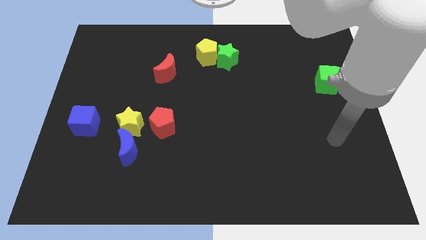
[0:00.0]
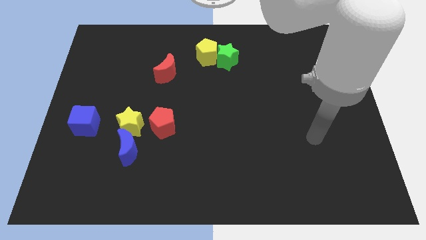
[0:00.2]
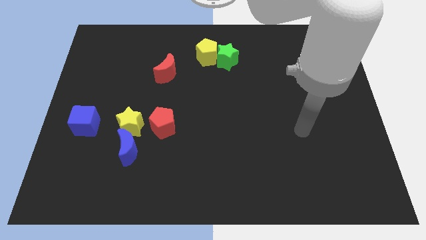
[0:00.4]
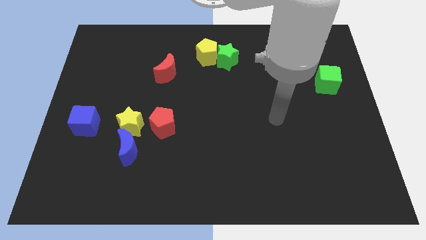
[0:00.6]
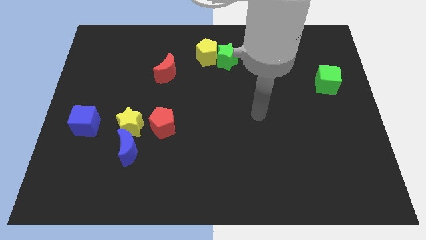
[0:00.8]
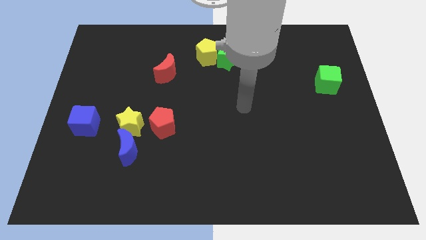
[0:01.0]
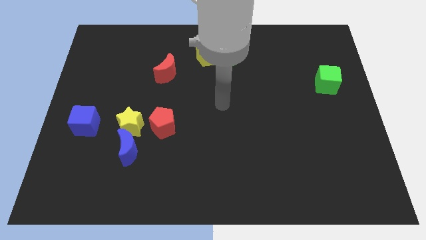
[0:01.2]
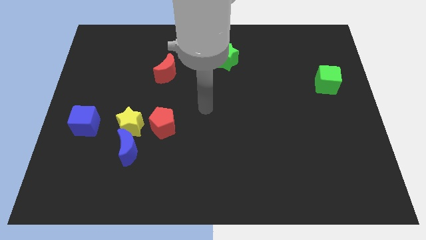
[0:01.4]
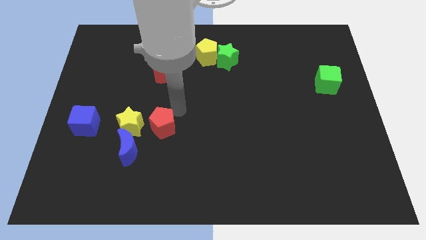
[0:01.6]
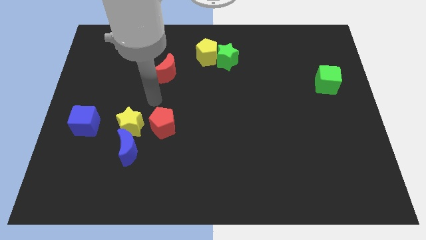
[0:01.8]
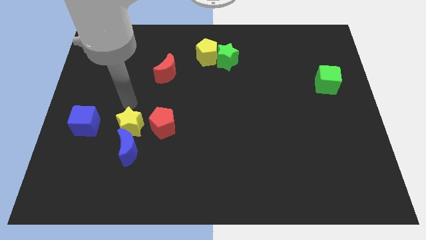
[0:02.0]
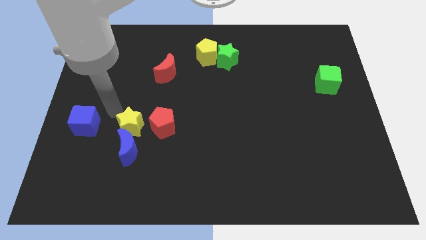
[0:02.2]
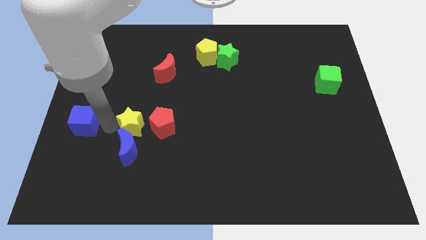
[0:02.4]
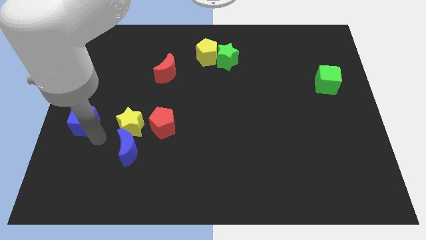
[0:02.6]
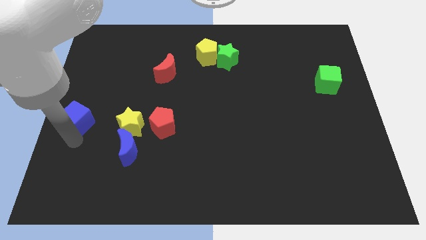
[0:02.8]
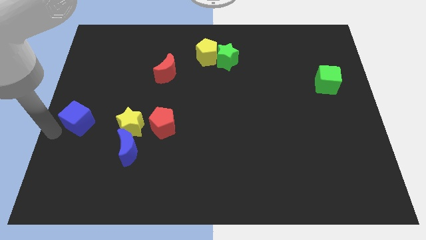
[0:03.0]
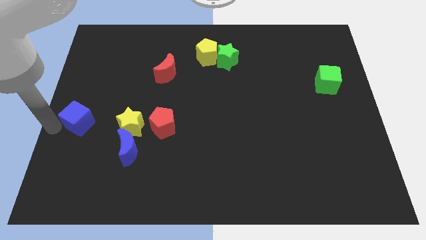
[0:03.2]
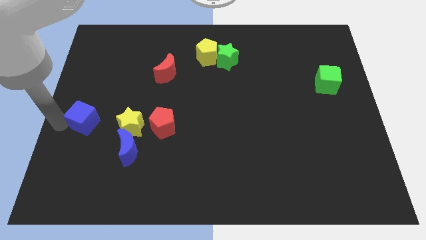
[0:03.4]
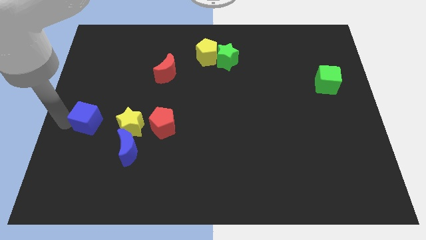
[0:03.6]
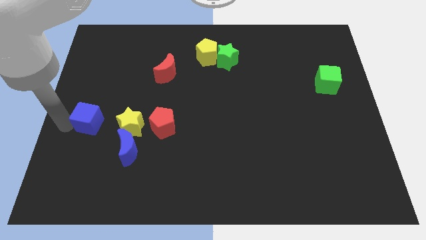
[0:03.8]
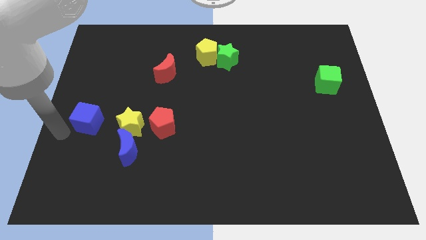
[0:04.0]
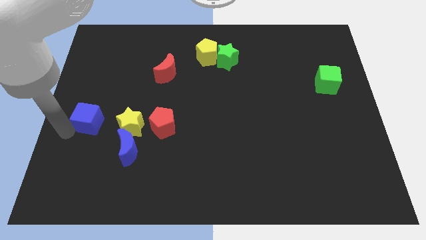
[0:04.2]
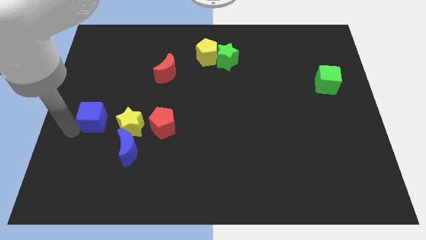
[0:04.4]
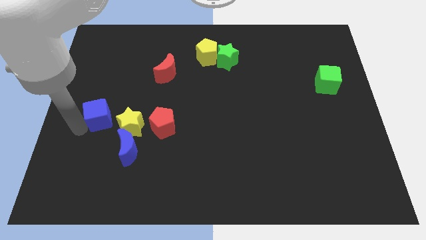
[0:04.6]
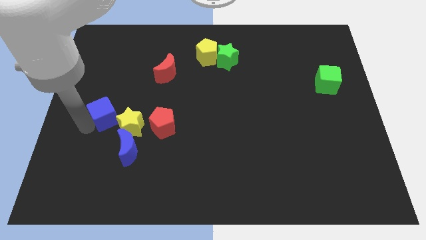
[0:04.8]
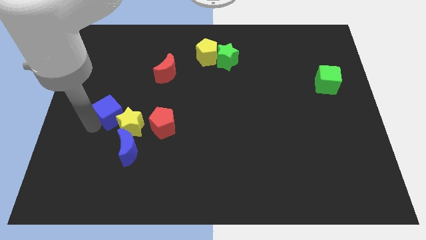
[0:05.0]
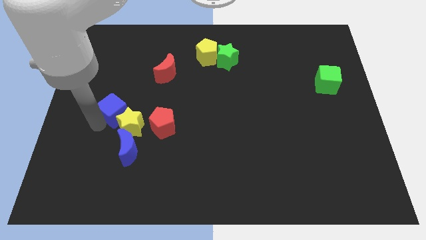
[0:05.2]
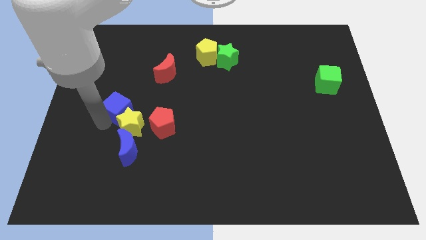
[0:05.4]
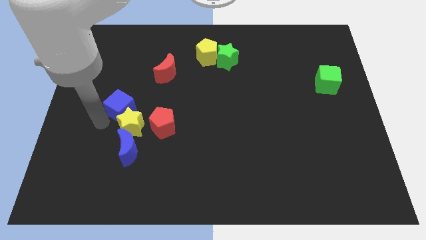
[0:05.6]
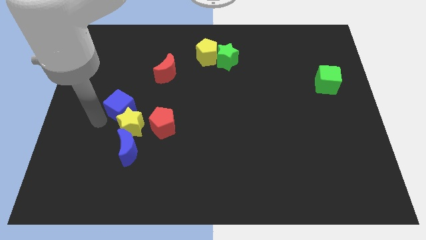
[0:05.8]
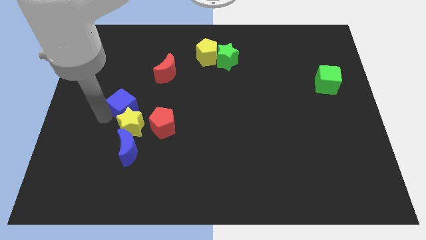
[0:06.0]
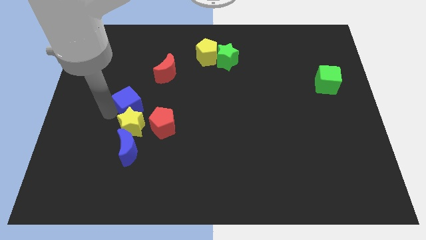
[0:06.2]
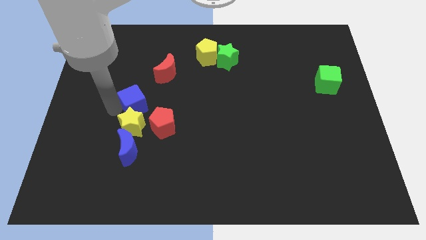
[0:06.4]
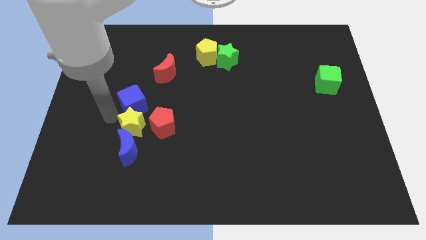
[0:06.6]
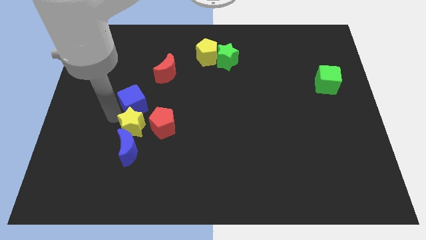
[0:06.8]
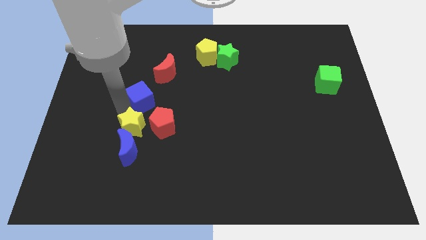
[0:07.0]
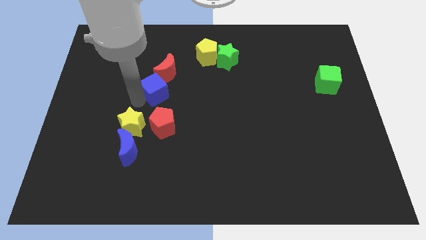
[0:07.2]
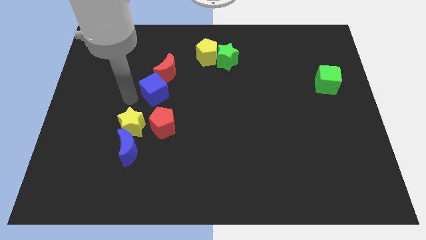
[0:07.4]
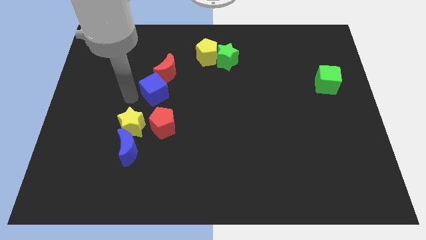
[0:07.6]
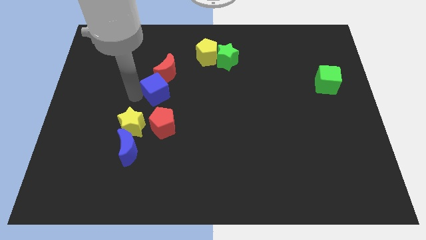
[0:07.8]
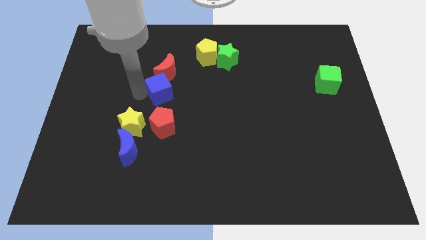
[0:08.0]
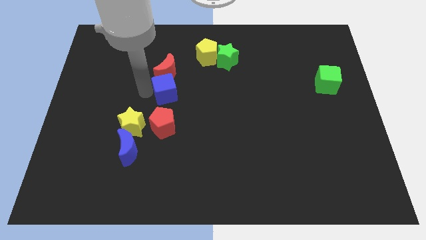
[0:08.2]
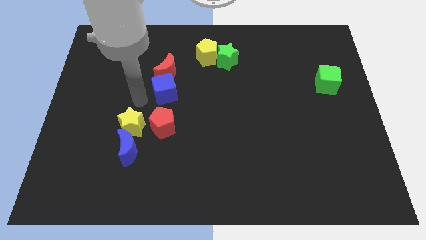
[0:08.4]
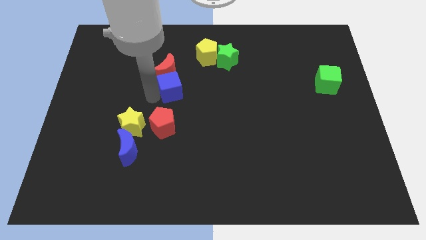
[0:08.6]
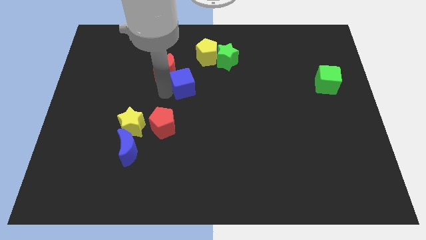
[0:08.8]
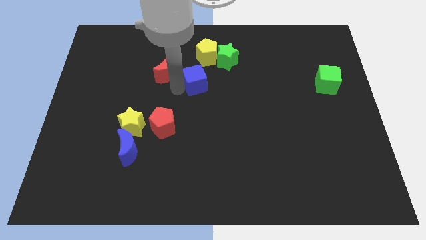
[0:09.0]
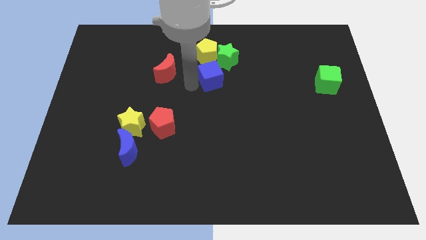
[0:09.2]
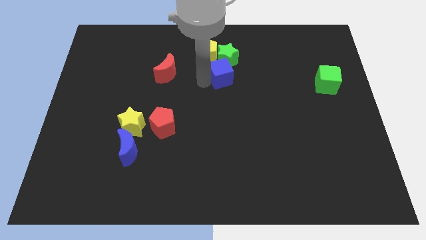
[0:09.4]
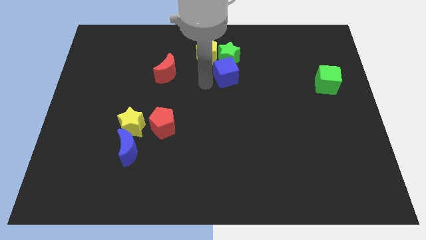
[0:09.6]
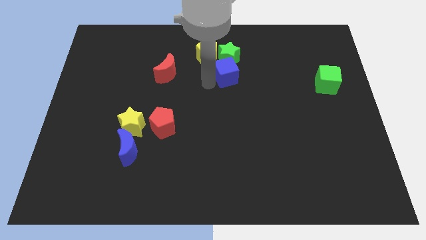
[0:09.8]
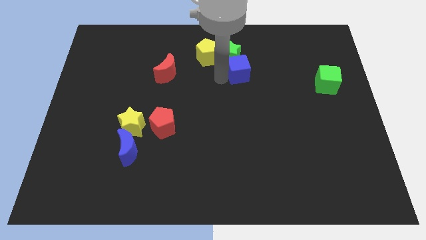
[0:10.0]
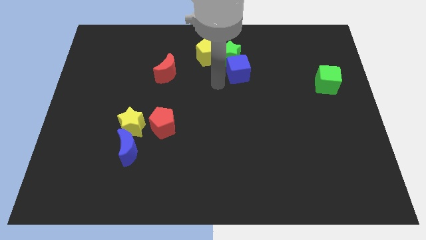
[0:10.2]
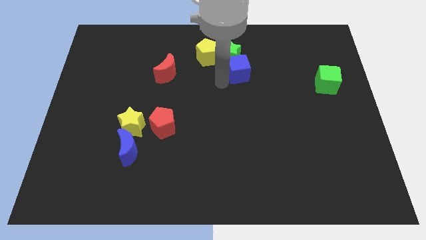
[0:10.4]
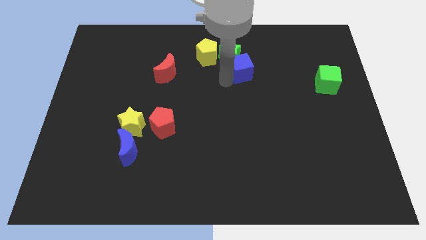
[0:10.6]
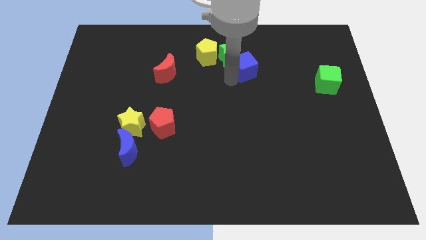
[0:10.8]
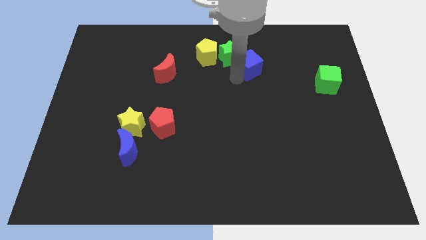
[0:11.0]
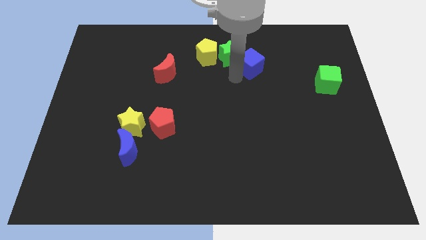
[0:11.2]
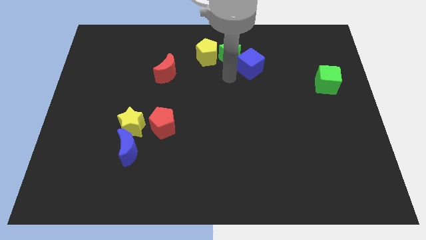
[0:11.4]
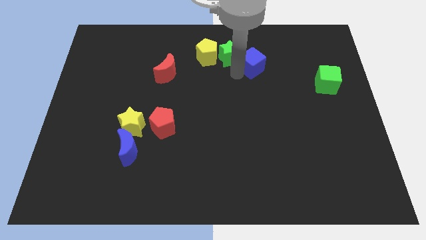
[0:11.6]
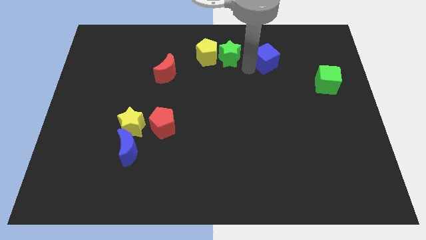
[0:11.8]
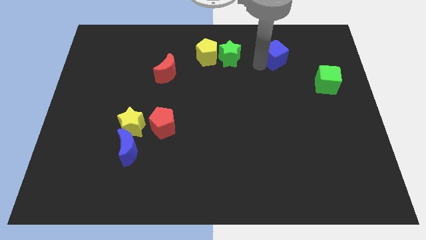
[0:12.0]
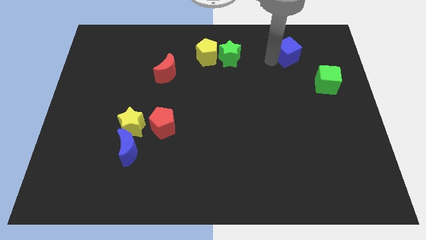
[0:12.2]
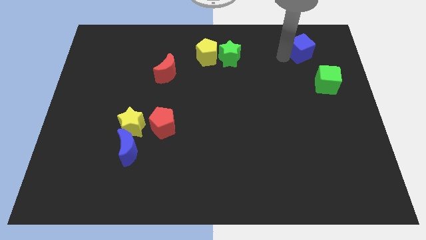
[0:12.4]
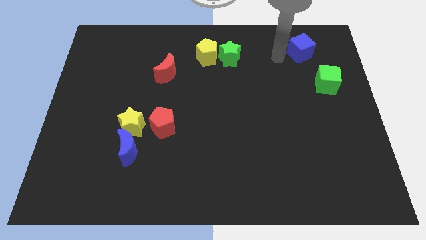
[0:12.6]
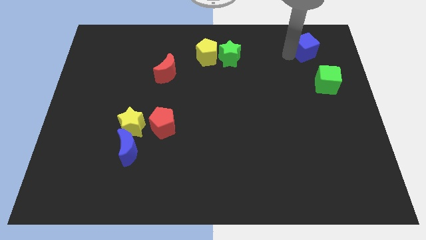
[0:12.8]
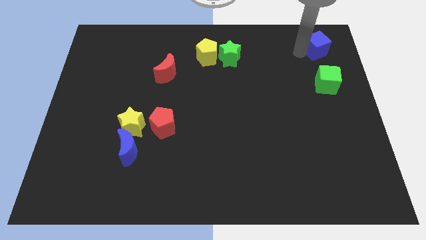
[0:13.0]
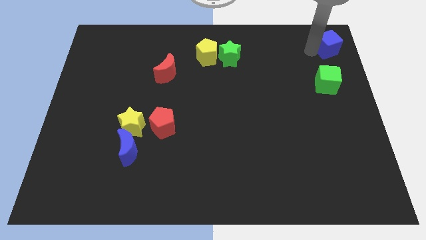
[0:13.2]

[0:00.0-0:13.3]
move the blue cube to the top right of the board
